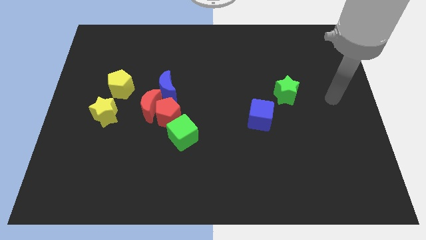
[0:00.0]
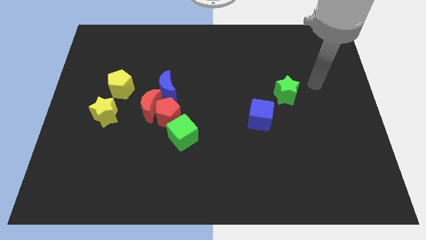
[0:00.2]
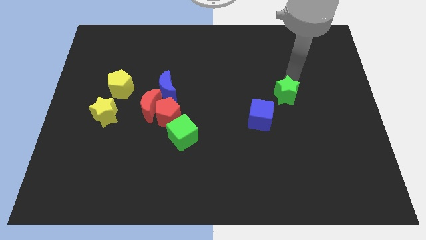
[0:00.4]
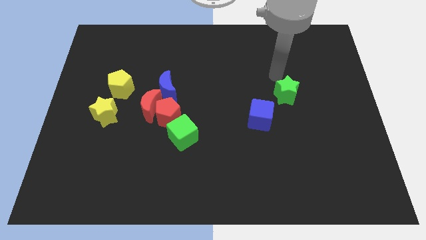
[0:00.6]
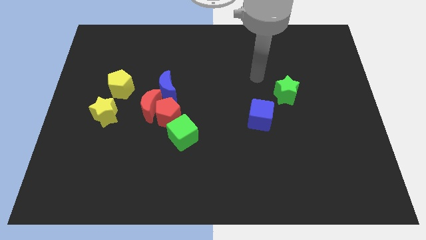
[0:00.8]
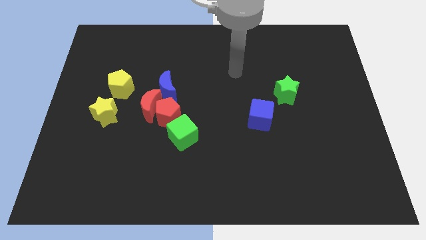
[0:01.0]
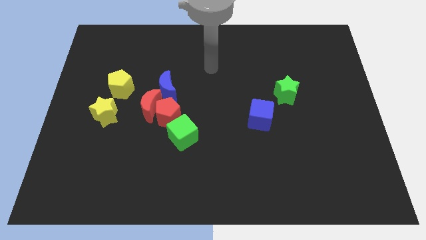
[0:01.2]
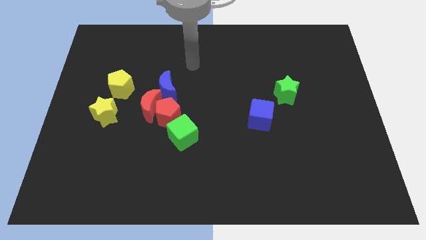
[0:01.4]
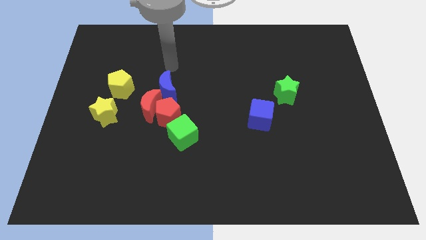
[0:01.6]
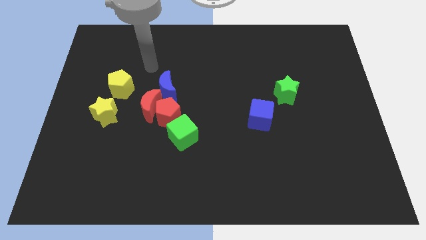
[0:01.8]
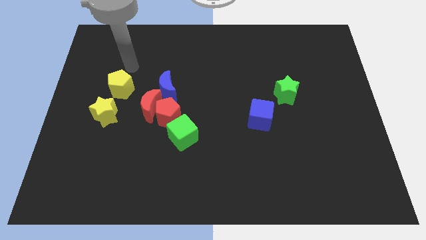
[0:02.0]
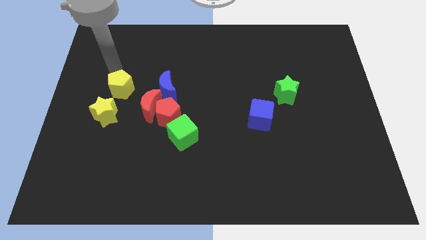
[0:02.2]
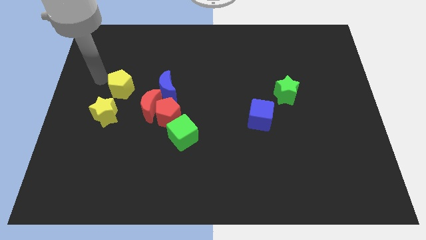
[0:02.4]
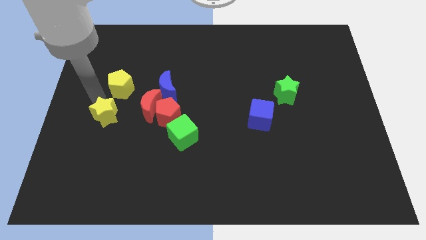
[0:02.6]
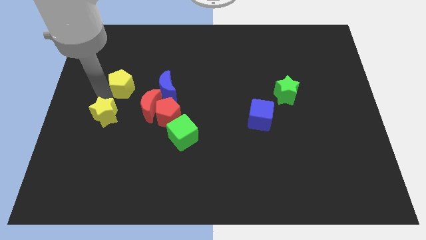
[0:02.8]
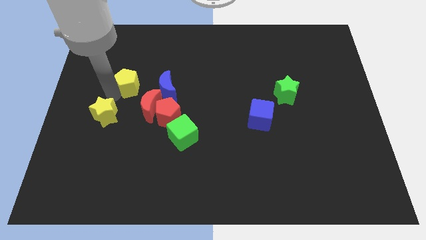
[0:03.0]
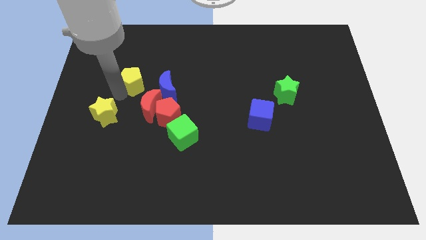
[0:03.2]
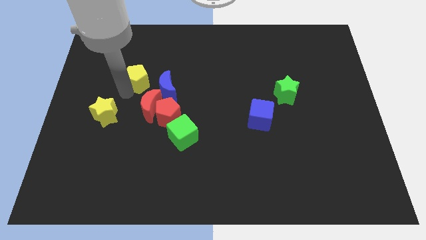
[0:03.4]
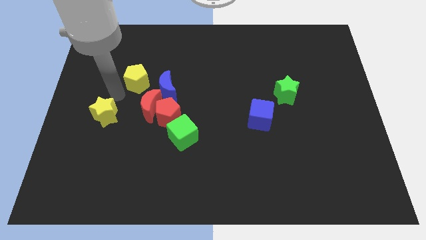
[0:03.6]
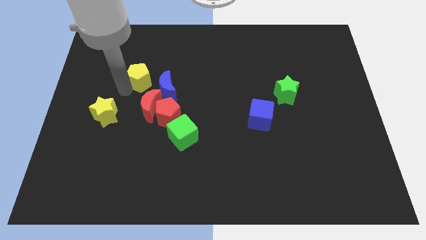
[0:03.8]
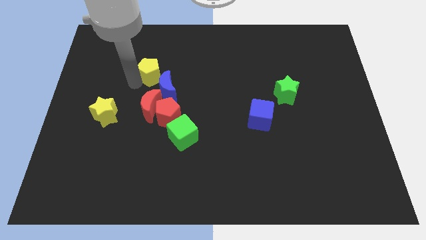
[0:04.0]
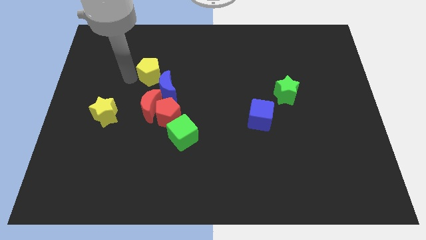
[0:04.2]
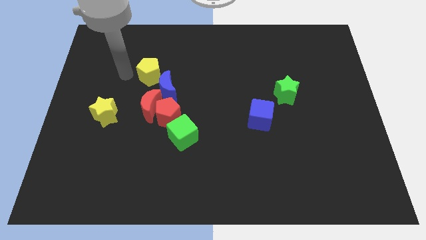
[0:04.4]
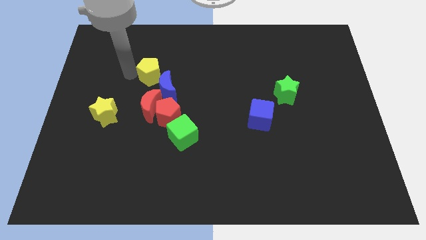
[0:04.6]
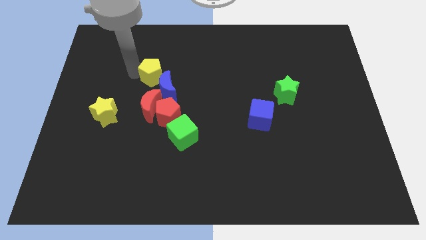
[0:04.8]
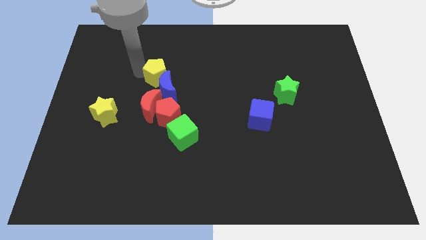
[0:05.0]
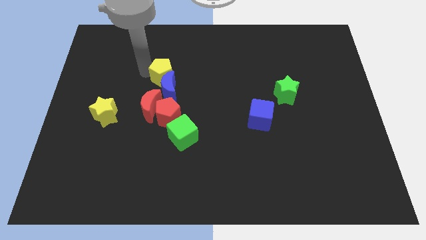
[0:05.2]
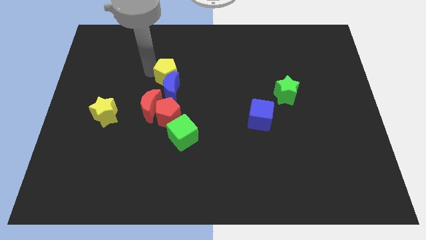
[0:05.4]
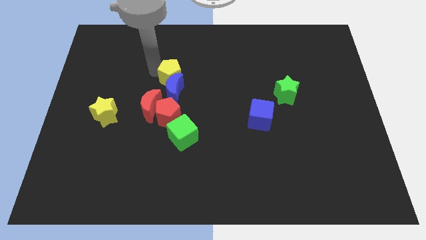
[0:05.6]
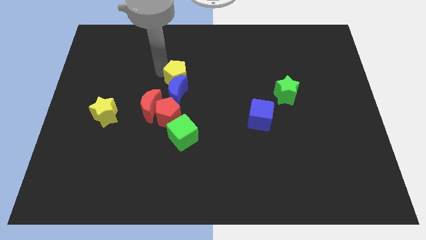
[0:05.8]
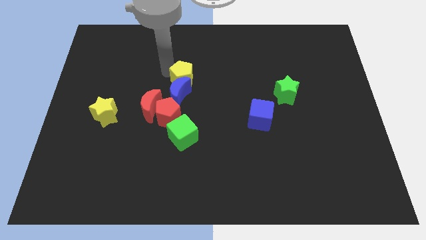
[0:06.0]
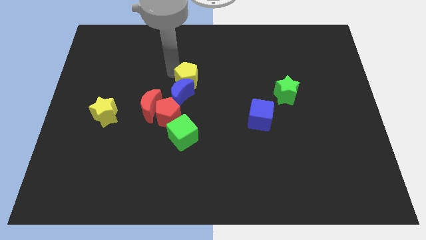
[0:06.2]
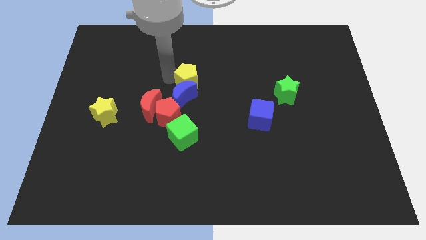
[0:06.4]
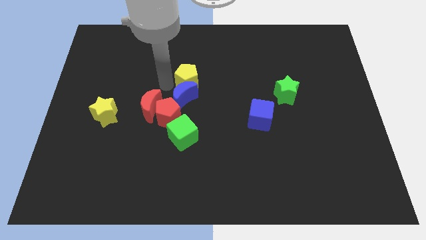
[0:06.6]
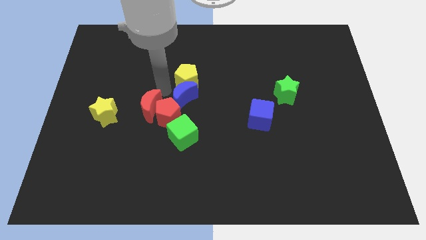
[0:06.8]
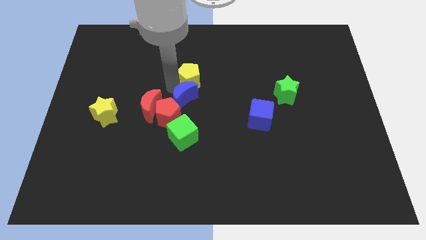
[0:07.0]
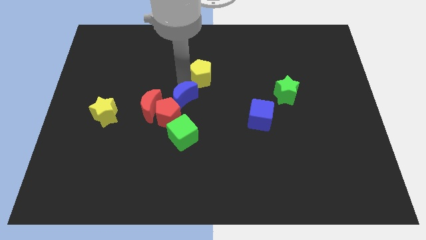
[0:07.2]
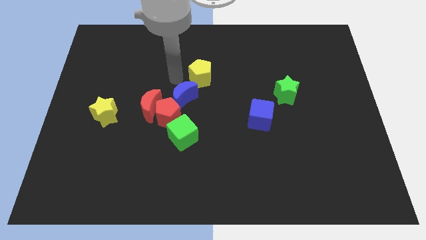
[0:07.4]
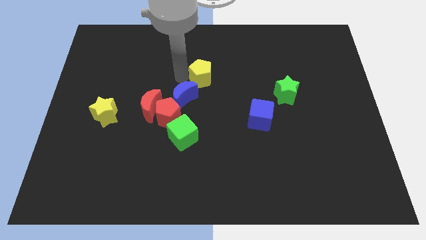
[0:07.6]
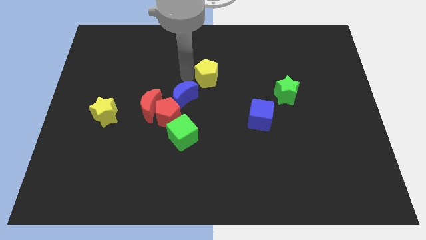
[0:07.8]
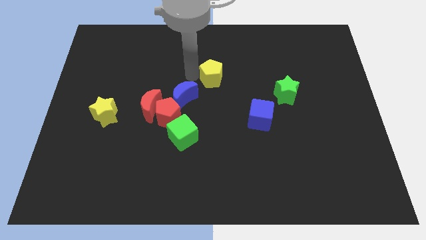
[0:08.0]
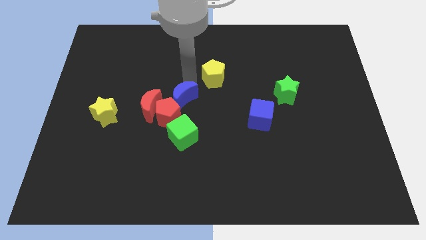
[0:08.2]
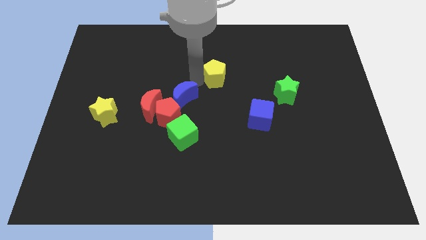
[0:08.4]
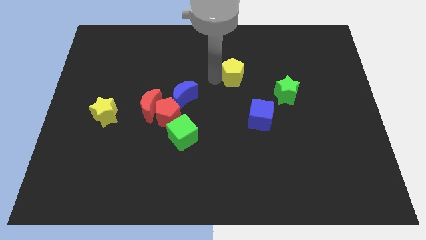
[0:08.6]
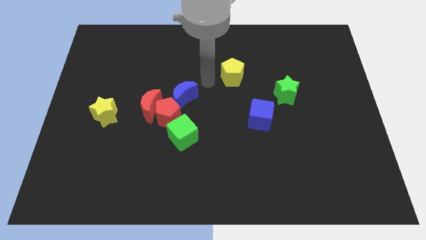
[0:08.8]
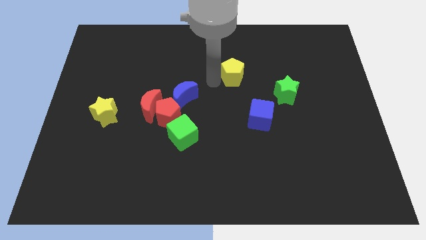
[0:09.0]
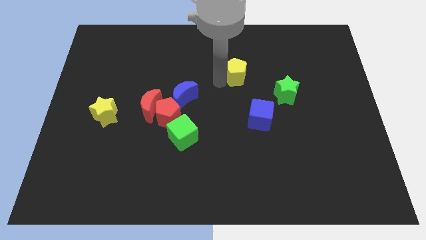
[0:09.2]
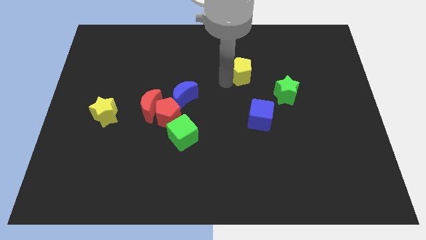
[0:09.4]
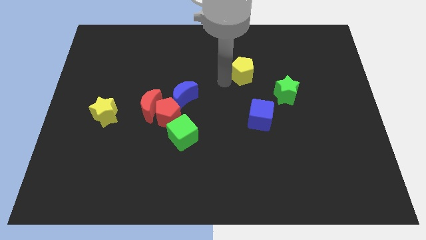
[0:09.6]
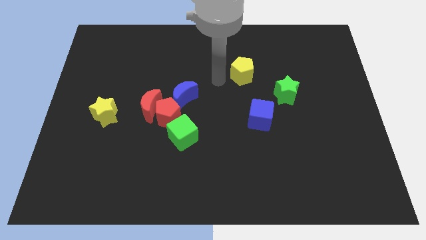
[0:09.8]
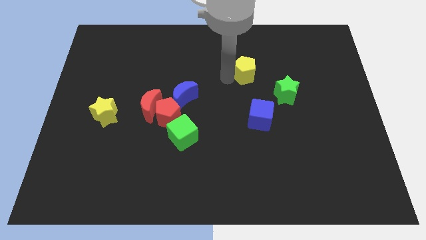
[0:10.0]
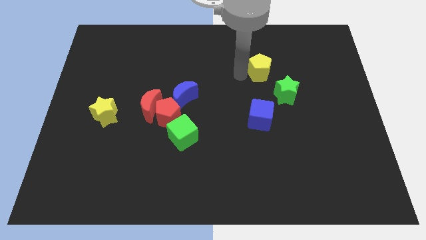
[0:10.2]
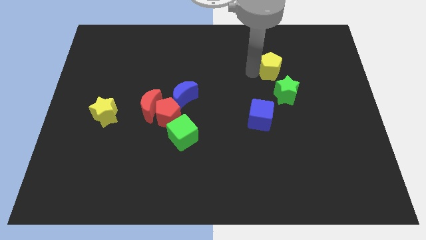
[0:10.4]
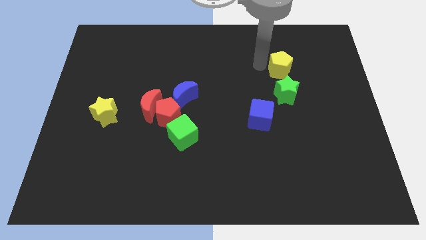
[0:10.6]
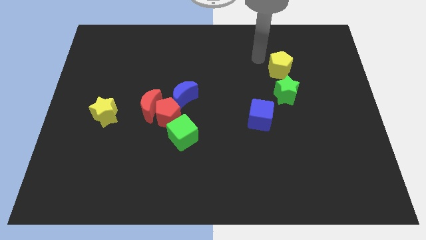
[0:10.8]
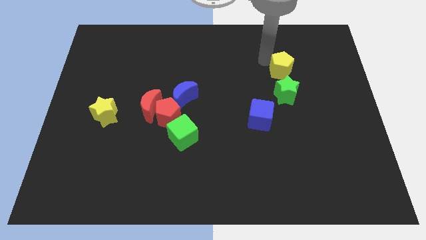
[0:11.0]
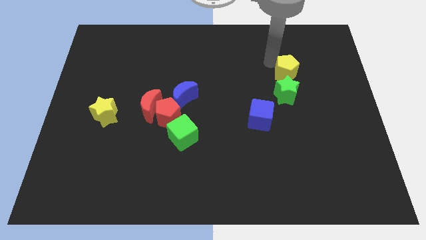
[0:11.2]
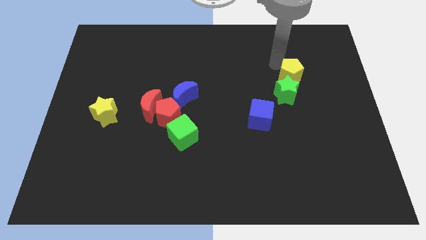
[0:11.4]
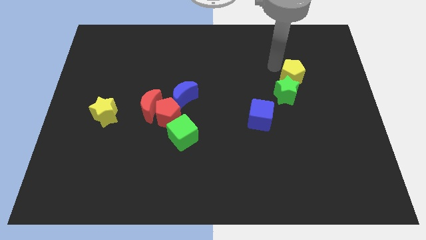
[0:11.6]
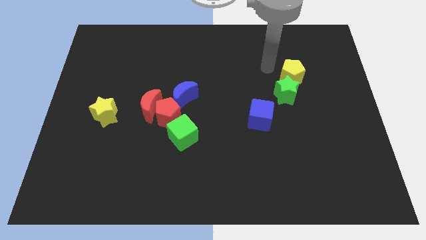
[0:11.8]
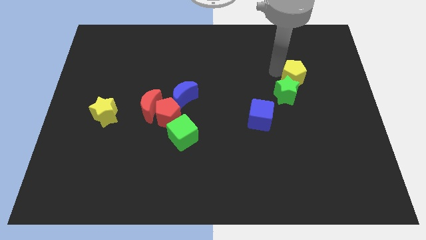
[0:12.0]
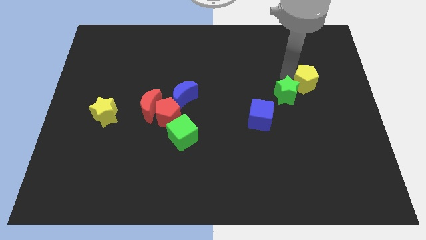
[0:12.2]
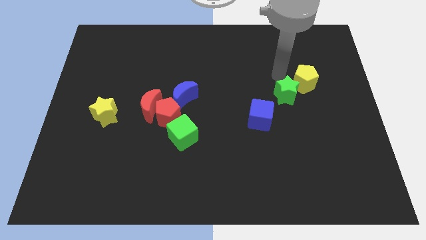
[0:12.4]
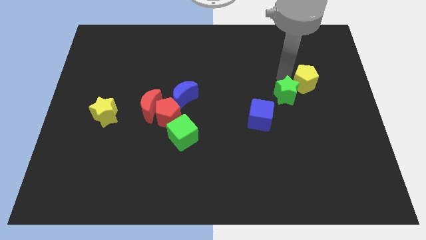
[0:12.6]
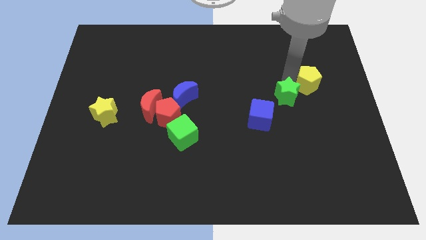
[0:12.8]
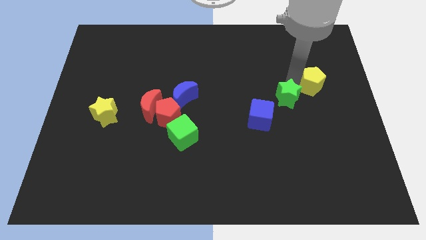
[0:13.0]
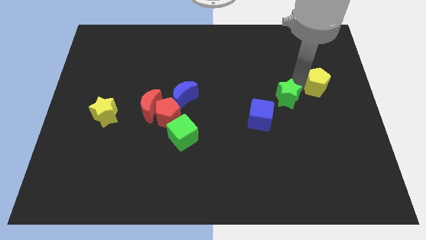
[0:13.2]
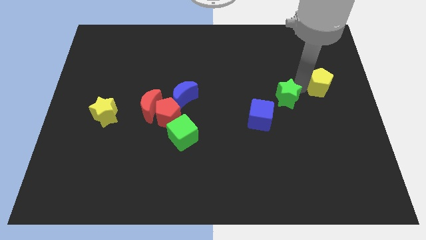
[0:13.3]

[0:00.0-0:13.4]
push the yellow pentagon to the right side

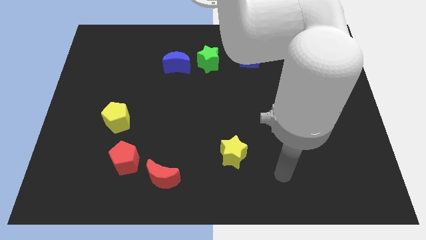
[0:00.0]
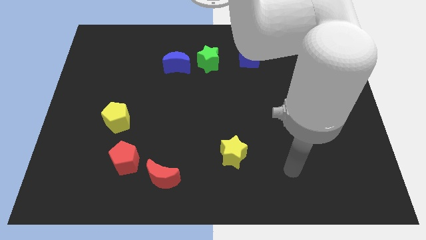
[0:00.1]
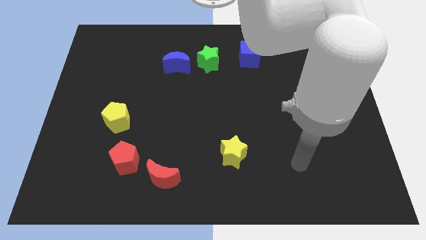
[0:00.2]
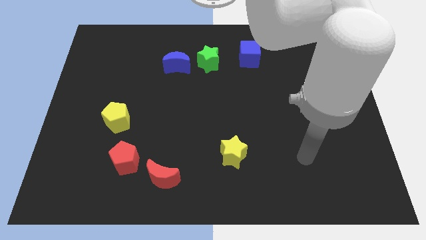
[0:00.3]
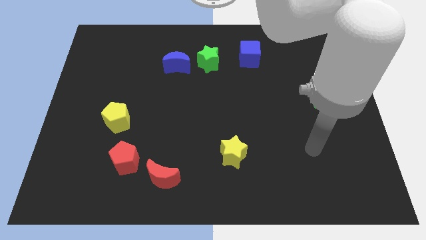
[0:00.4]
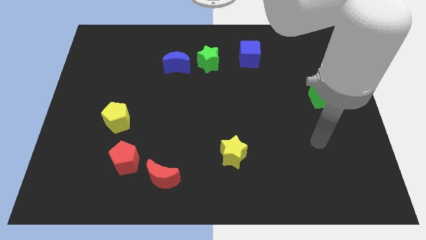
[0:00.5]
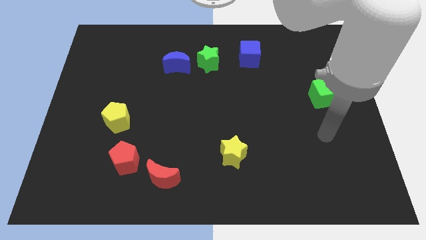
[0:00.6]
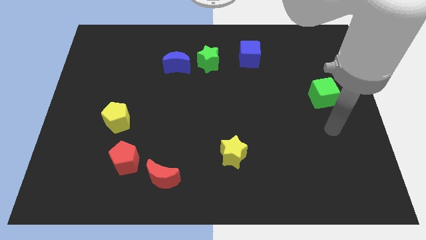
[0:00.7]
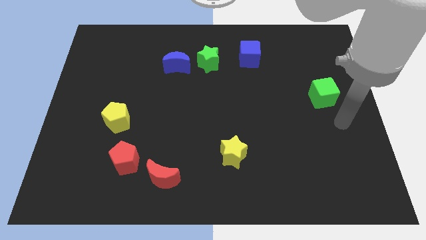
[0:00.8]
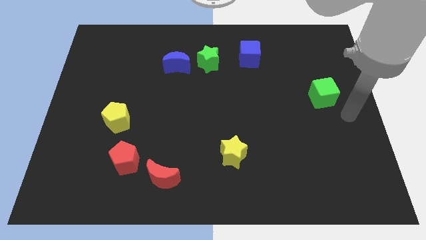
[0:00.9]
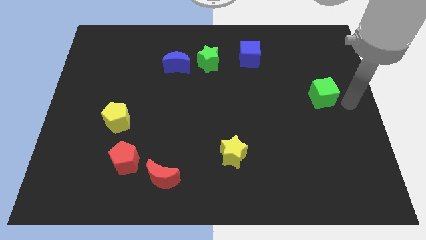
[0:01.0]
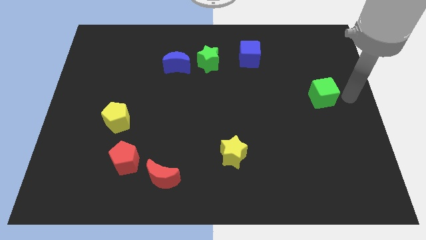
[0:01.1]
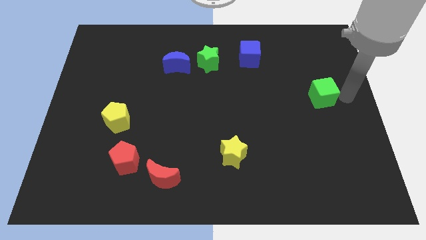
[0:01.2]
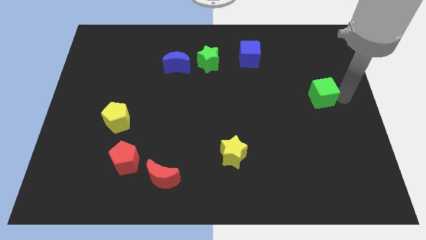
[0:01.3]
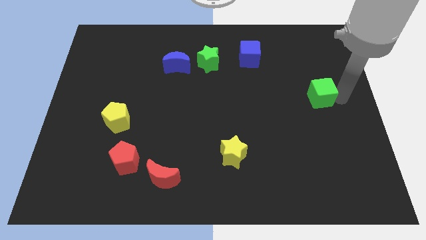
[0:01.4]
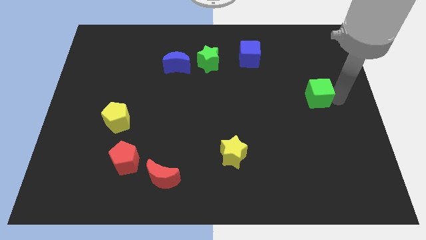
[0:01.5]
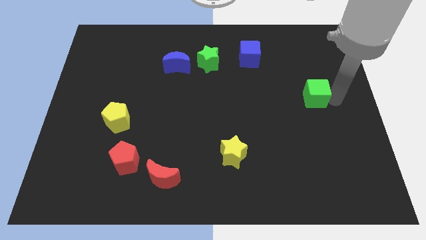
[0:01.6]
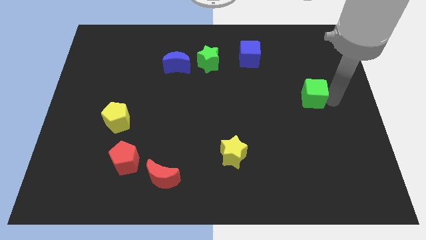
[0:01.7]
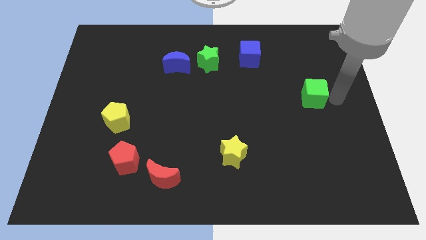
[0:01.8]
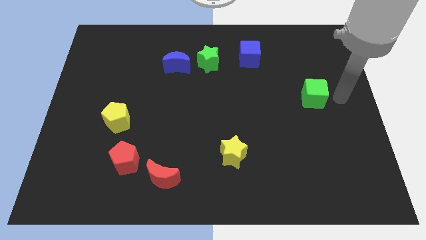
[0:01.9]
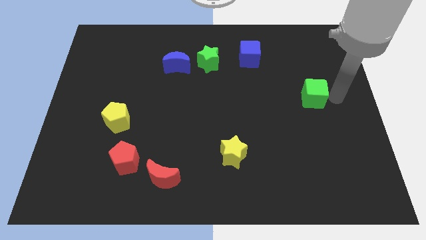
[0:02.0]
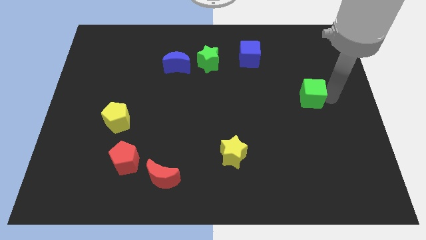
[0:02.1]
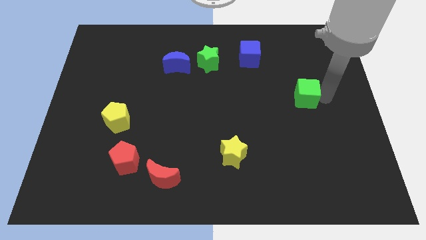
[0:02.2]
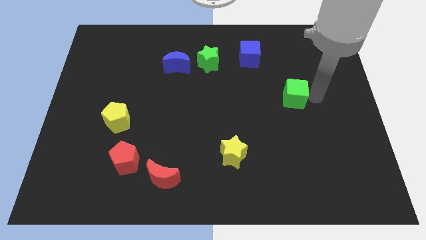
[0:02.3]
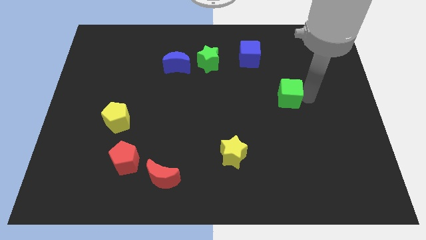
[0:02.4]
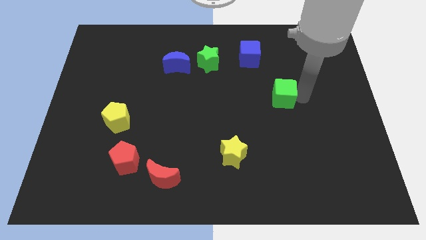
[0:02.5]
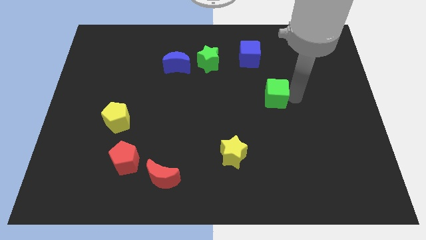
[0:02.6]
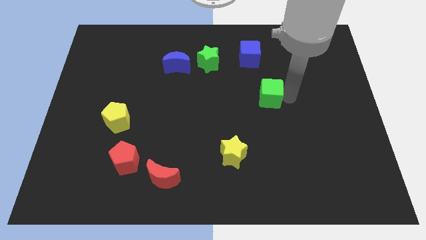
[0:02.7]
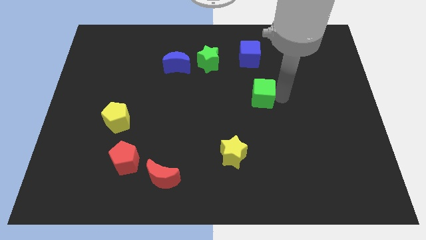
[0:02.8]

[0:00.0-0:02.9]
move the green cube to the center of the board
